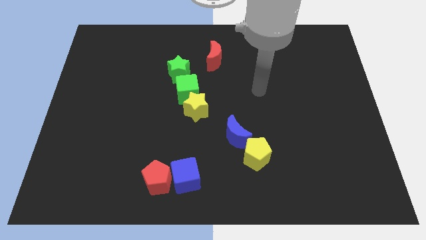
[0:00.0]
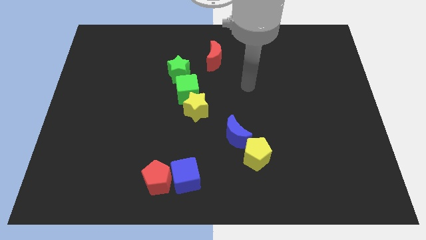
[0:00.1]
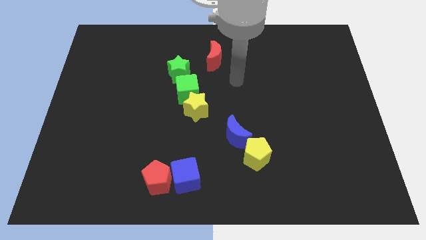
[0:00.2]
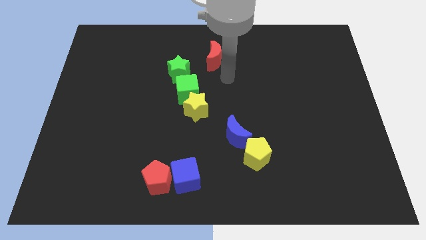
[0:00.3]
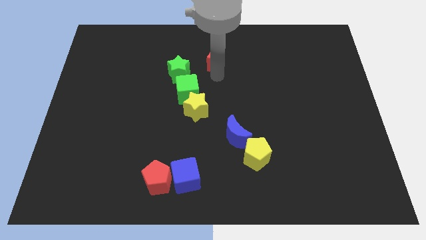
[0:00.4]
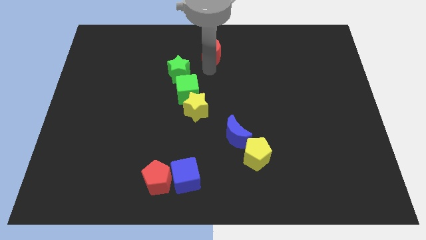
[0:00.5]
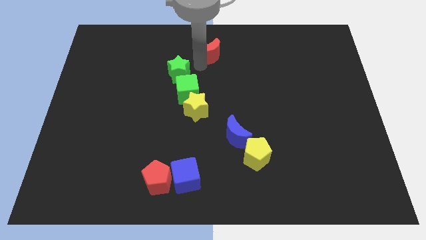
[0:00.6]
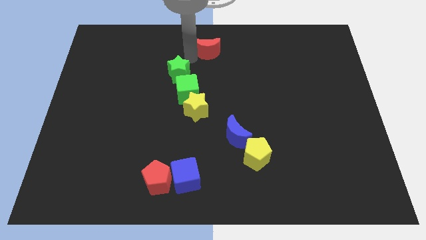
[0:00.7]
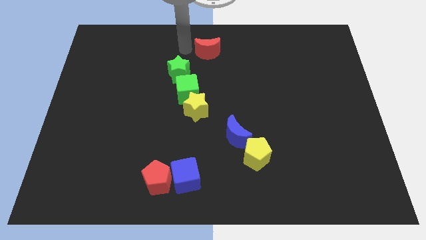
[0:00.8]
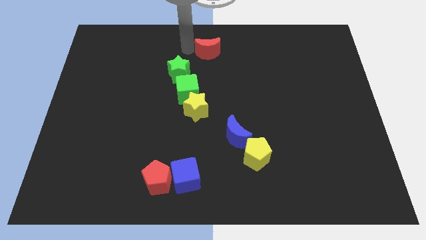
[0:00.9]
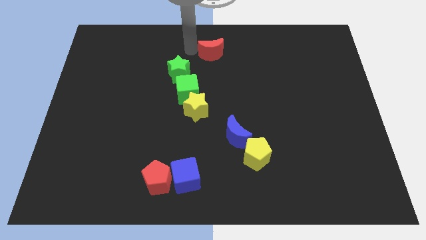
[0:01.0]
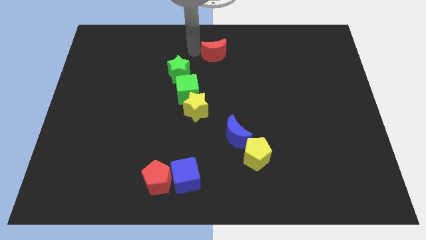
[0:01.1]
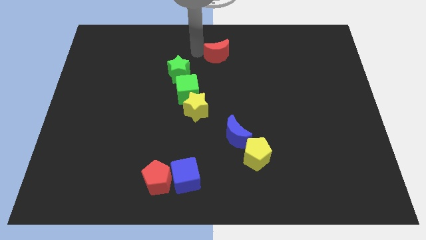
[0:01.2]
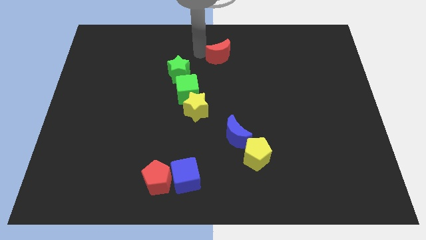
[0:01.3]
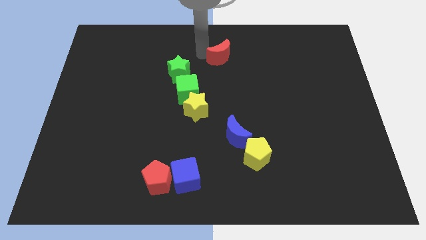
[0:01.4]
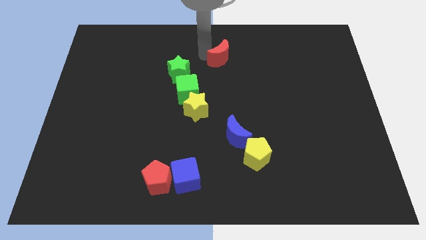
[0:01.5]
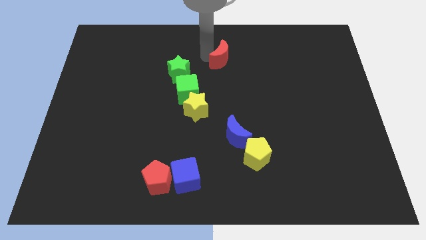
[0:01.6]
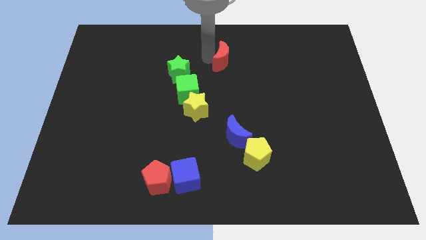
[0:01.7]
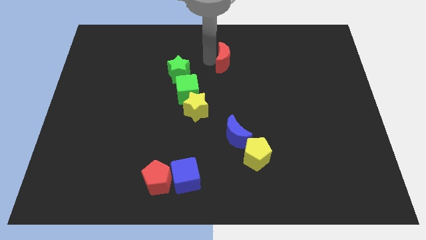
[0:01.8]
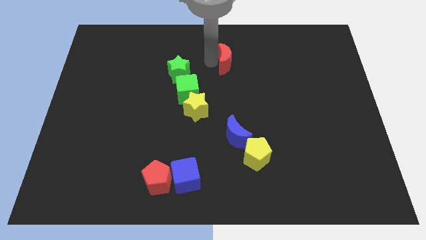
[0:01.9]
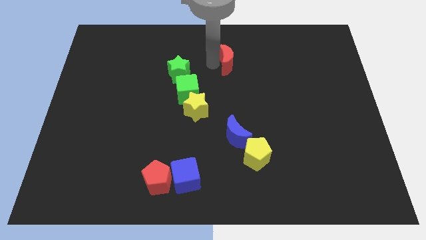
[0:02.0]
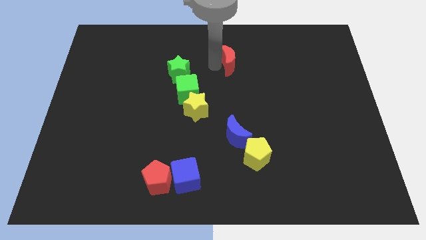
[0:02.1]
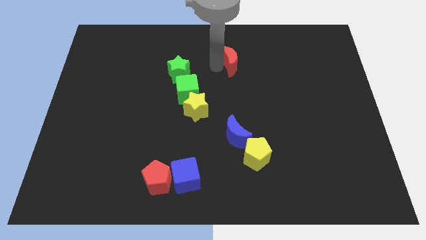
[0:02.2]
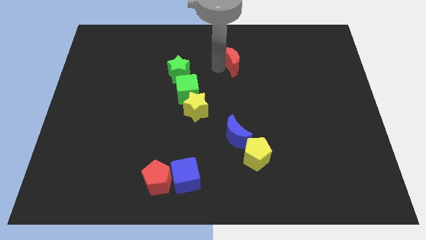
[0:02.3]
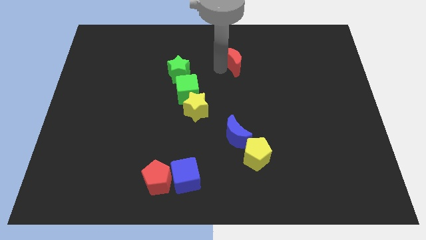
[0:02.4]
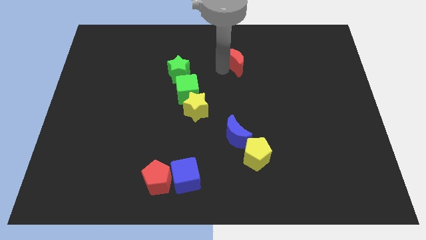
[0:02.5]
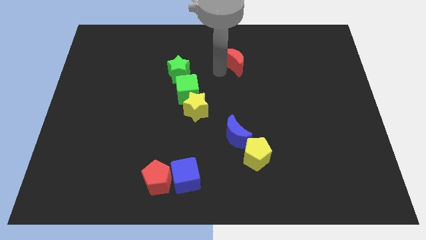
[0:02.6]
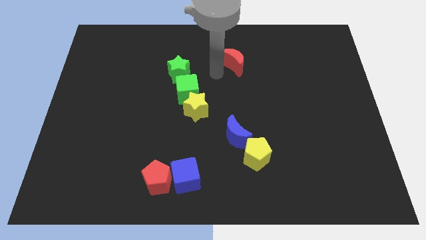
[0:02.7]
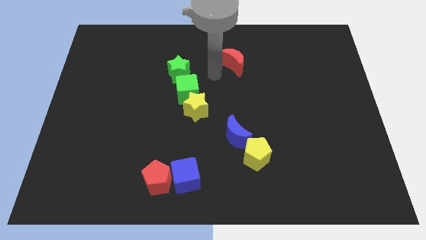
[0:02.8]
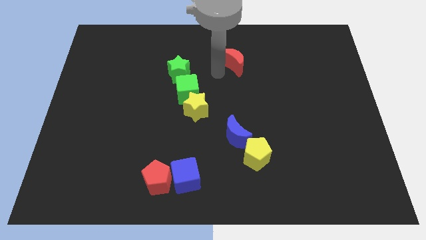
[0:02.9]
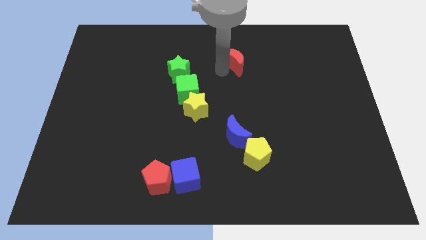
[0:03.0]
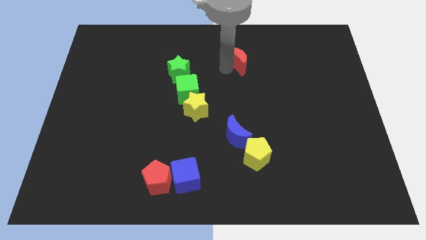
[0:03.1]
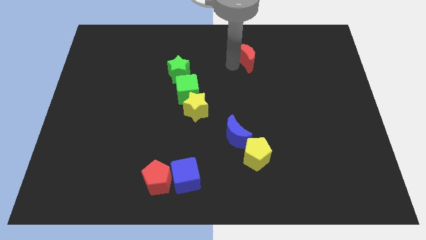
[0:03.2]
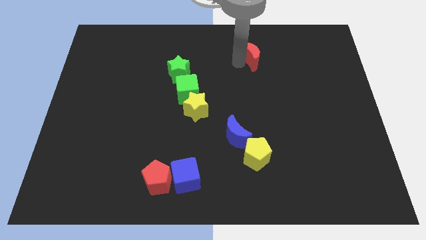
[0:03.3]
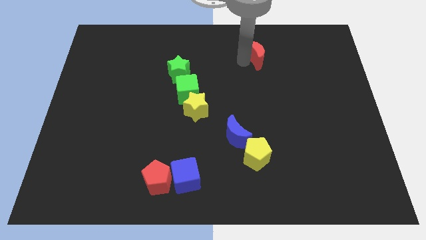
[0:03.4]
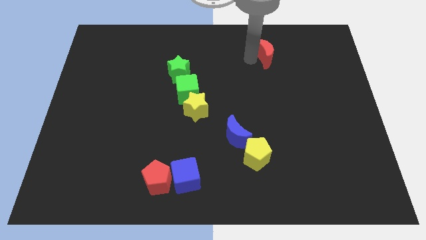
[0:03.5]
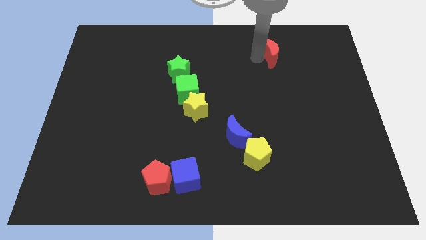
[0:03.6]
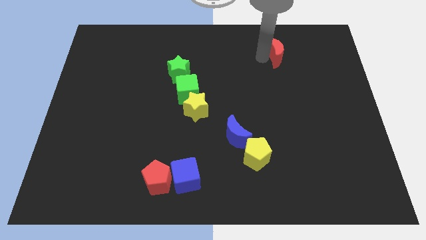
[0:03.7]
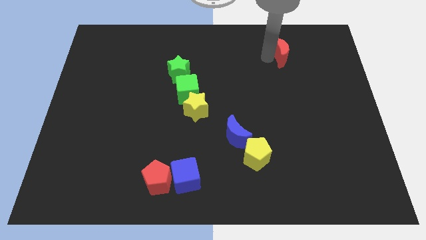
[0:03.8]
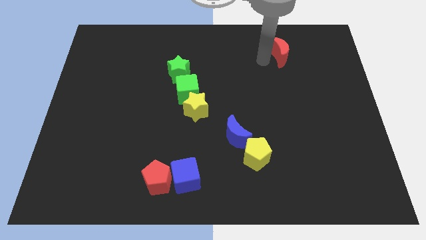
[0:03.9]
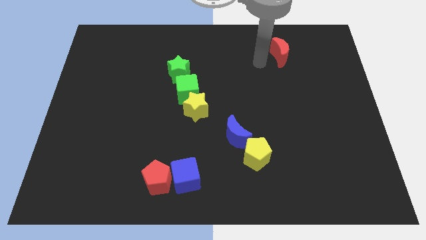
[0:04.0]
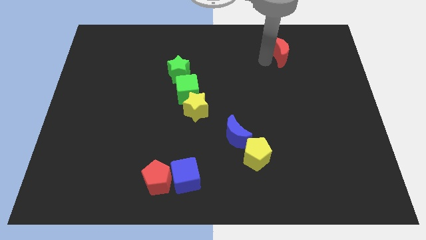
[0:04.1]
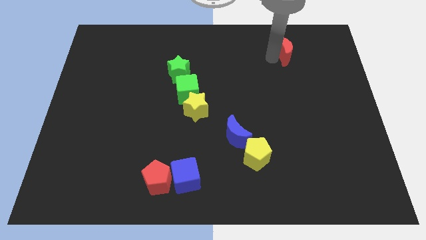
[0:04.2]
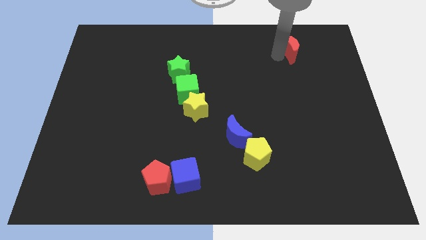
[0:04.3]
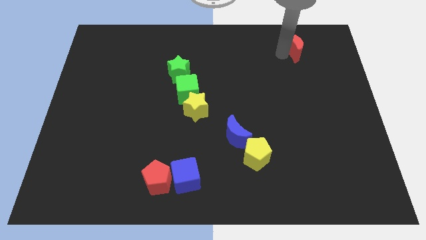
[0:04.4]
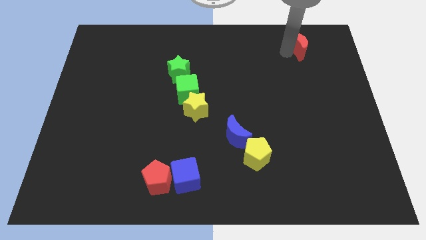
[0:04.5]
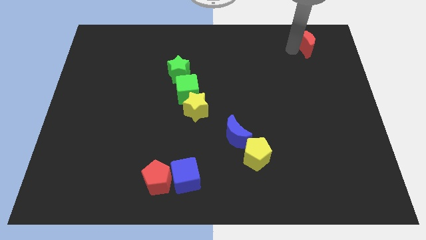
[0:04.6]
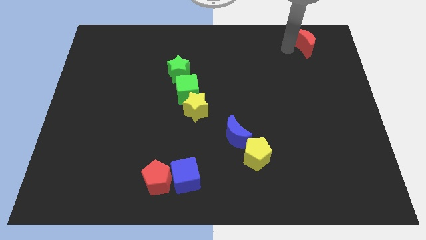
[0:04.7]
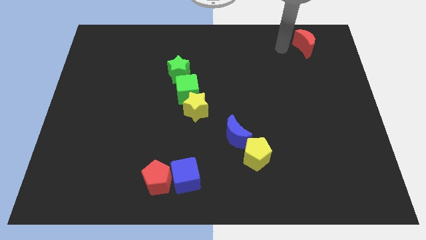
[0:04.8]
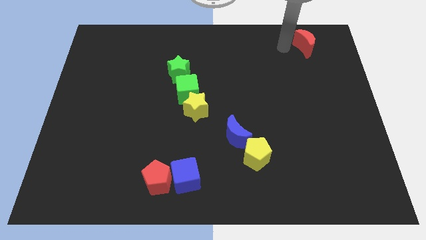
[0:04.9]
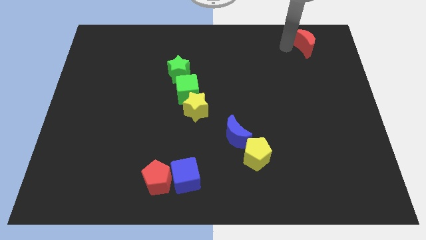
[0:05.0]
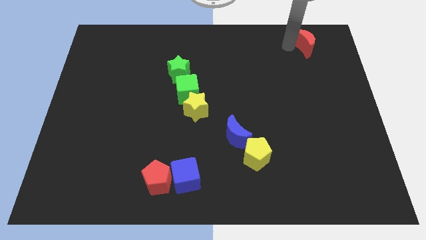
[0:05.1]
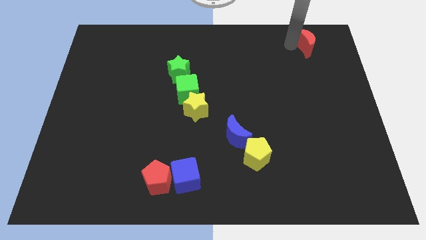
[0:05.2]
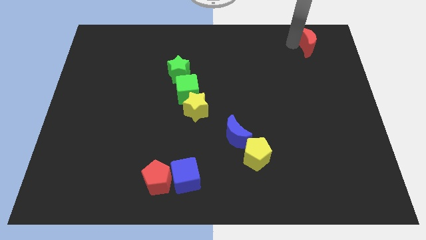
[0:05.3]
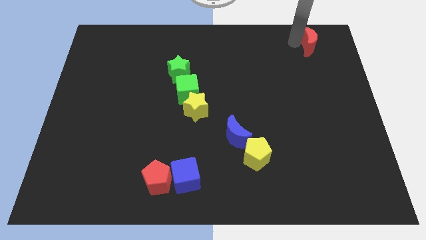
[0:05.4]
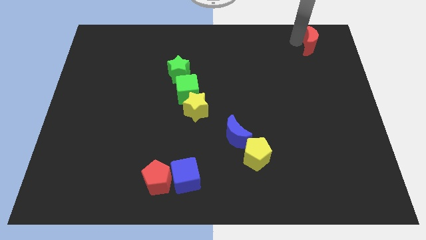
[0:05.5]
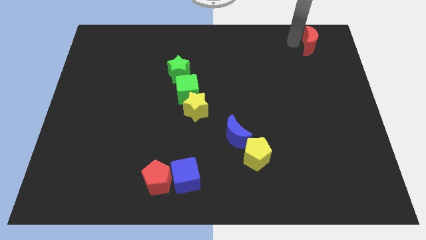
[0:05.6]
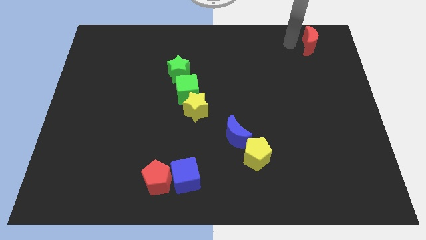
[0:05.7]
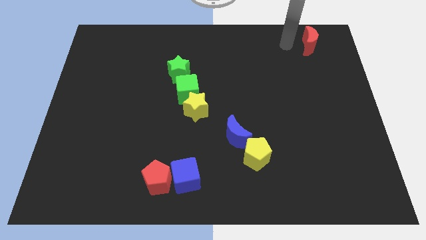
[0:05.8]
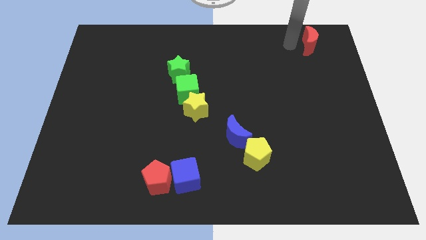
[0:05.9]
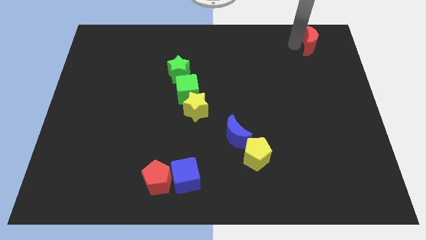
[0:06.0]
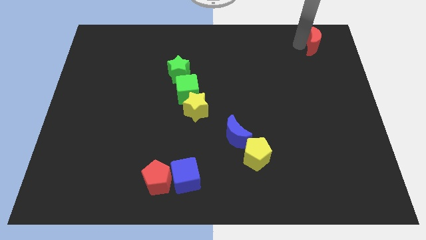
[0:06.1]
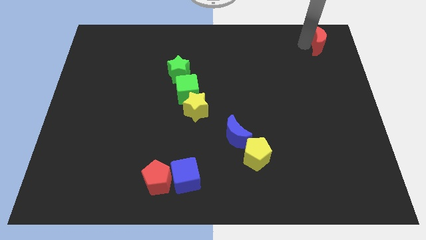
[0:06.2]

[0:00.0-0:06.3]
slide the red moon to the top right of the board
